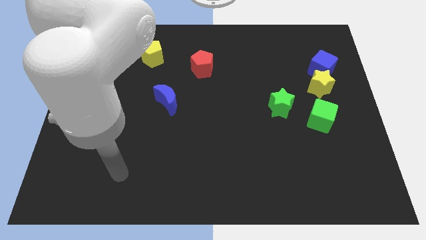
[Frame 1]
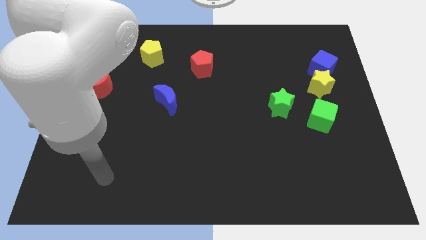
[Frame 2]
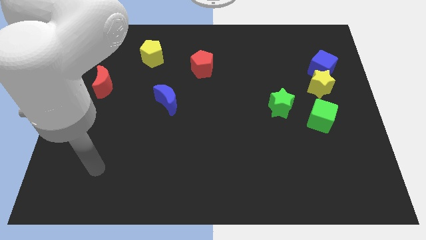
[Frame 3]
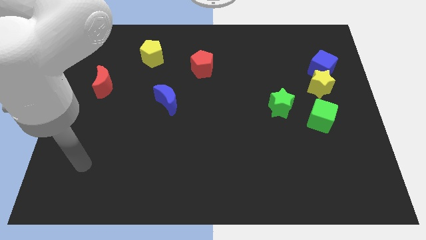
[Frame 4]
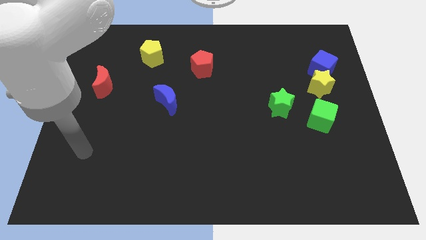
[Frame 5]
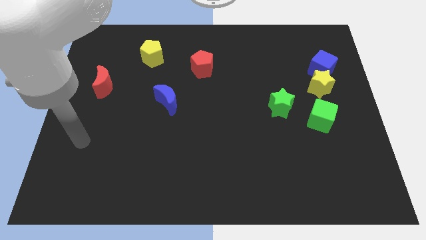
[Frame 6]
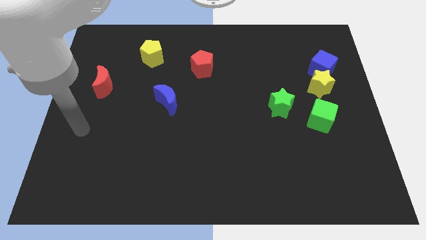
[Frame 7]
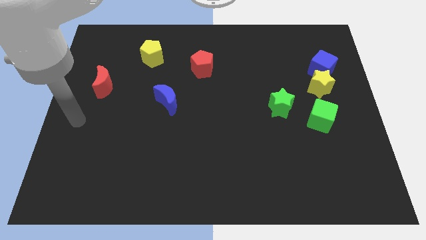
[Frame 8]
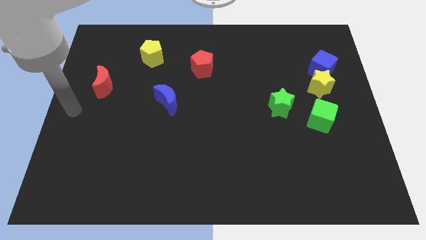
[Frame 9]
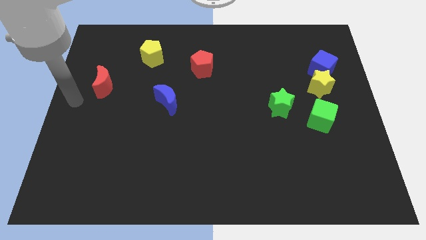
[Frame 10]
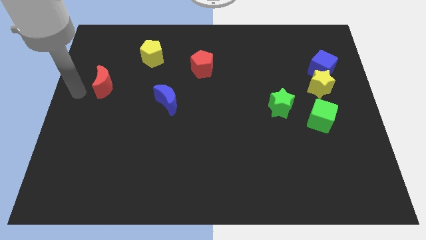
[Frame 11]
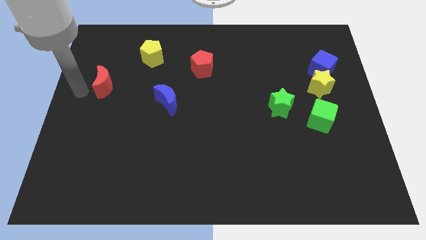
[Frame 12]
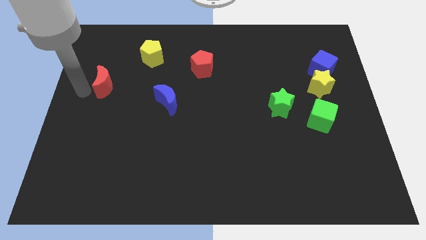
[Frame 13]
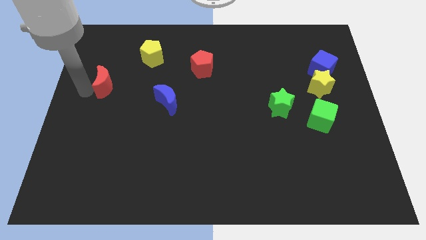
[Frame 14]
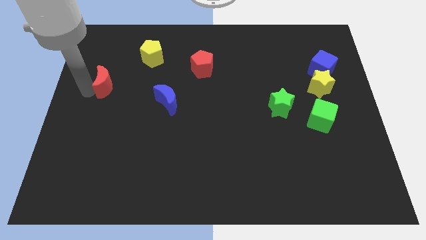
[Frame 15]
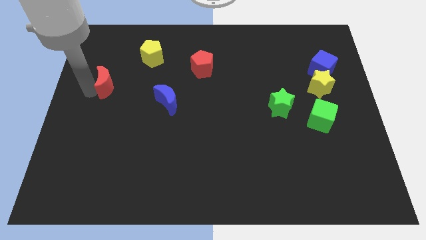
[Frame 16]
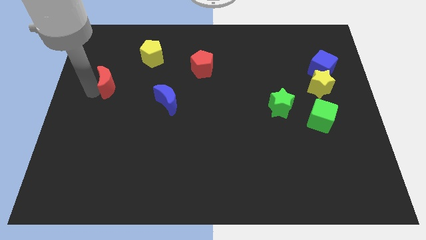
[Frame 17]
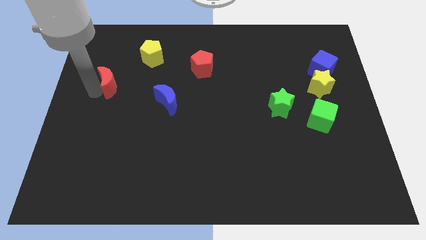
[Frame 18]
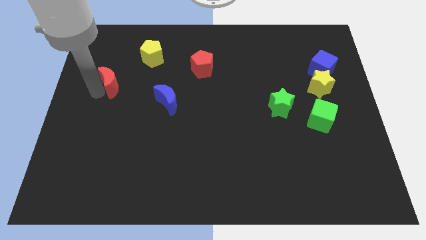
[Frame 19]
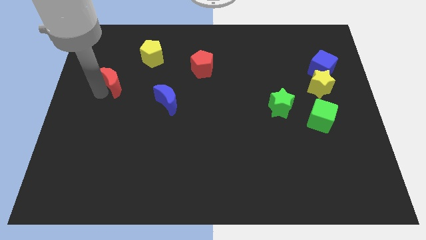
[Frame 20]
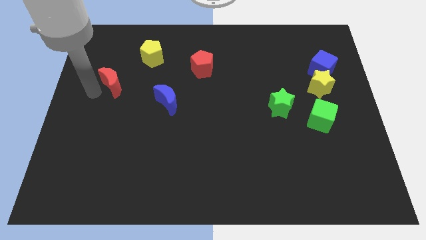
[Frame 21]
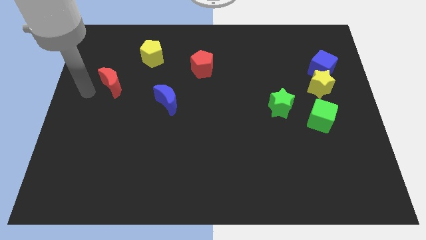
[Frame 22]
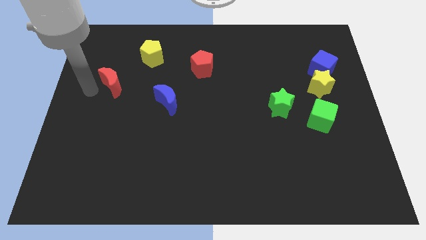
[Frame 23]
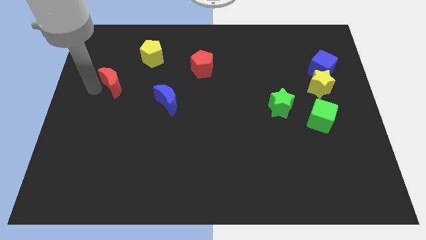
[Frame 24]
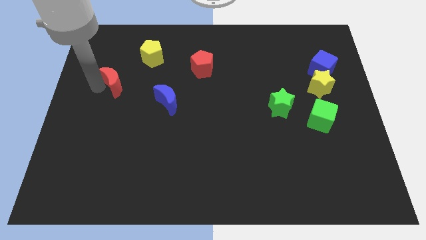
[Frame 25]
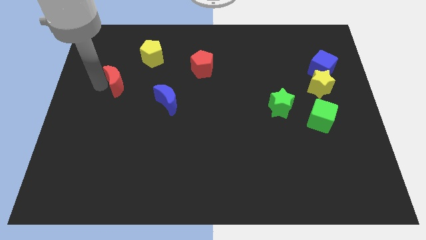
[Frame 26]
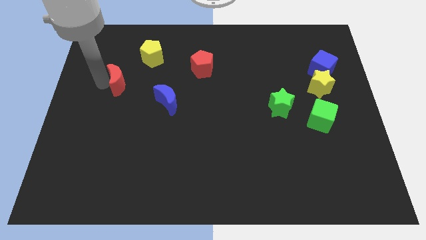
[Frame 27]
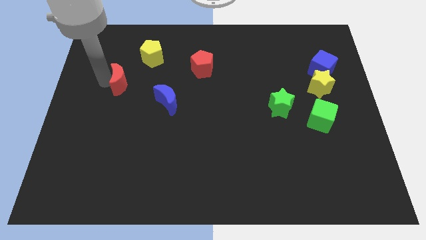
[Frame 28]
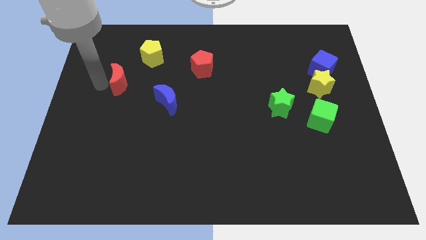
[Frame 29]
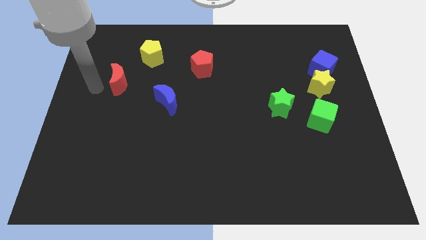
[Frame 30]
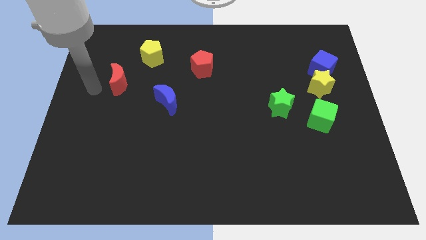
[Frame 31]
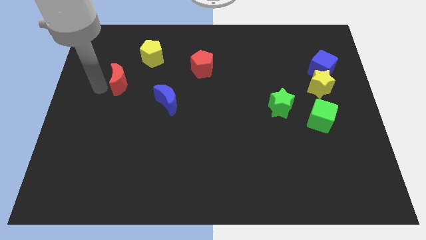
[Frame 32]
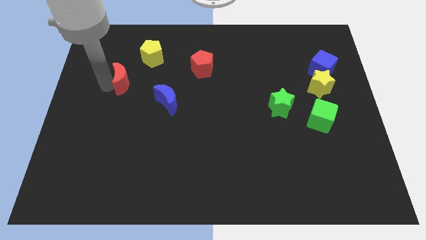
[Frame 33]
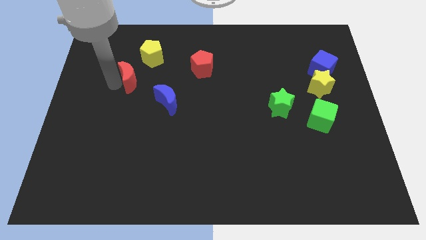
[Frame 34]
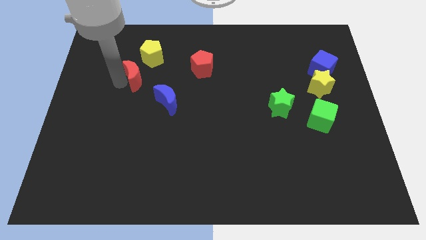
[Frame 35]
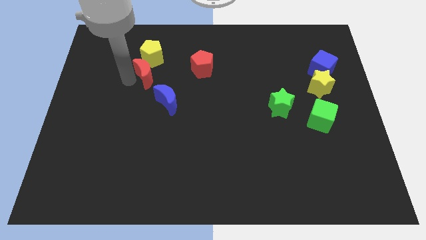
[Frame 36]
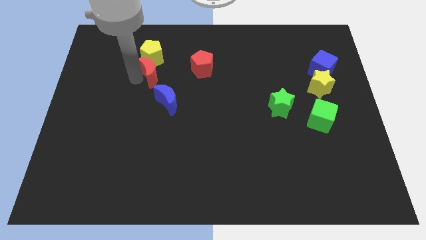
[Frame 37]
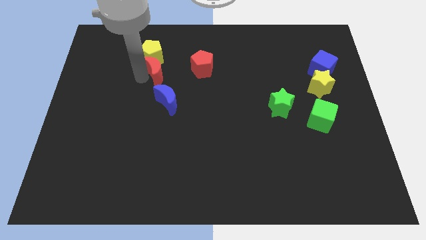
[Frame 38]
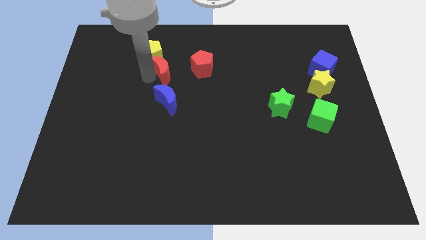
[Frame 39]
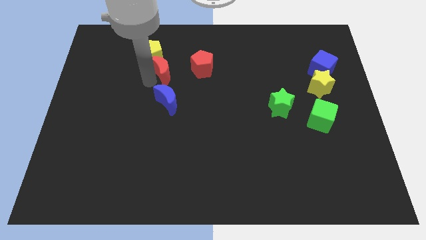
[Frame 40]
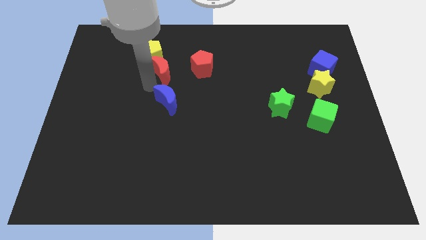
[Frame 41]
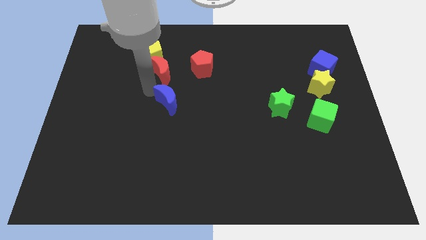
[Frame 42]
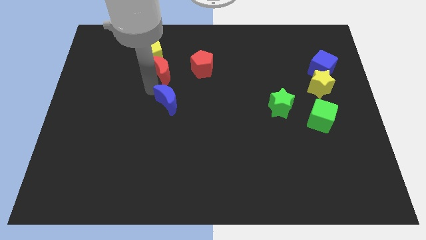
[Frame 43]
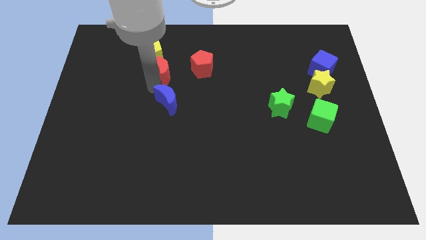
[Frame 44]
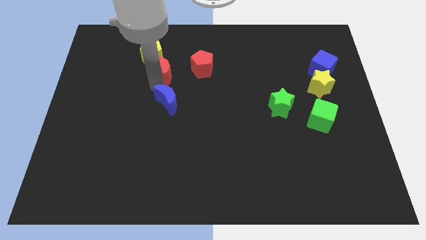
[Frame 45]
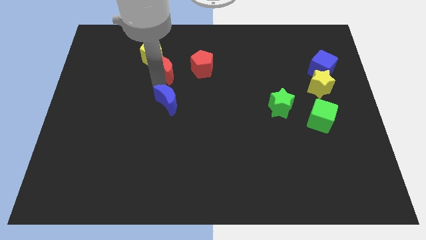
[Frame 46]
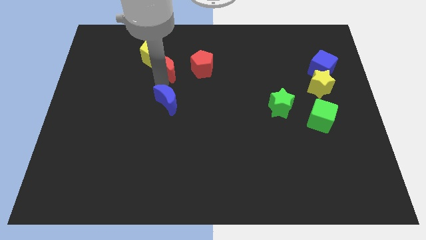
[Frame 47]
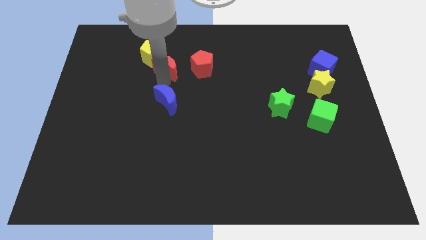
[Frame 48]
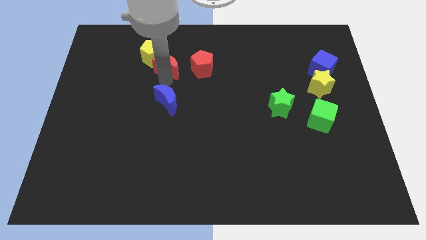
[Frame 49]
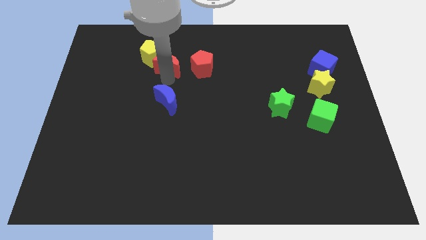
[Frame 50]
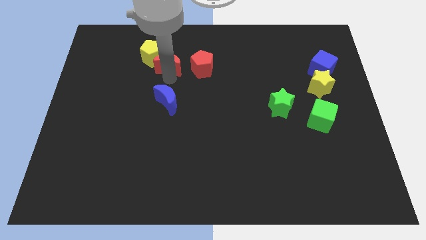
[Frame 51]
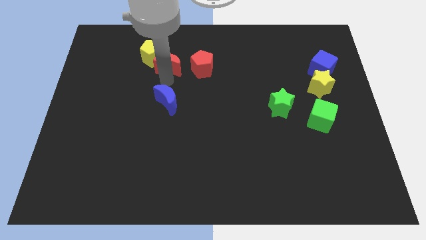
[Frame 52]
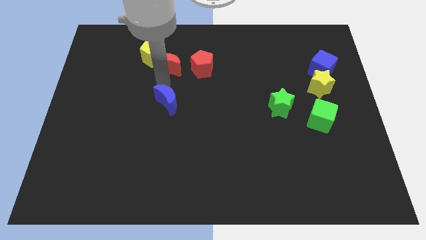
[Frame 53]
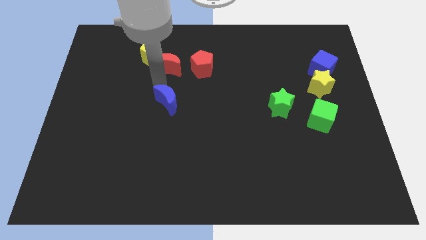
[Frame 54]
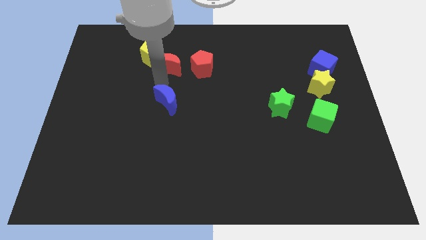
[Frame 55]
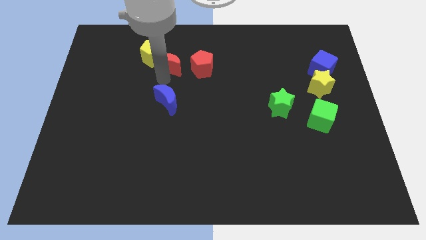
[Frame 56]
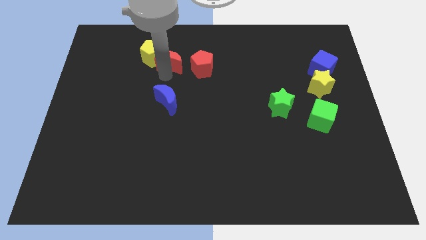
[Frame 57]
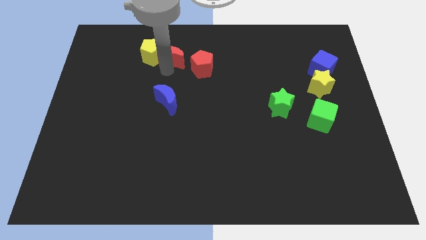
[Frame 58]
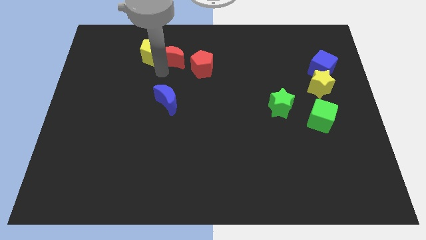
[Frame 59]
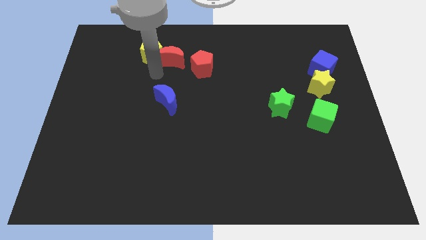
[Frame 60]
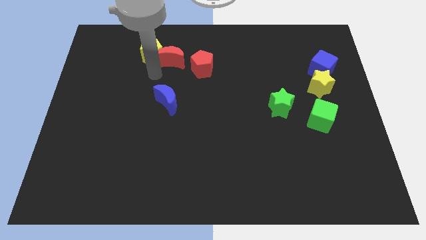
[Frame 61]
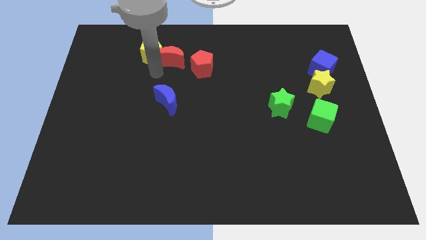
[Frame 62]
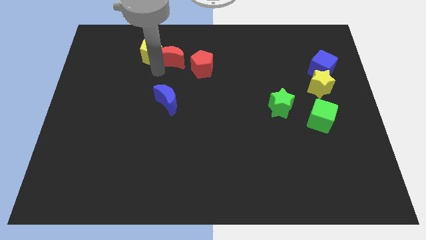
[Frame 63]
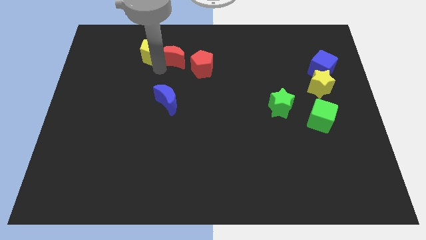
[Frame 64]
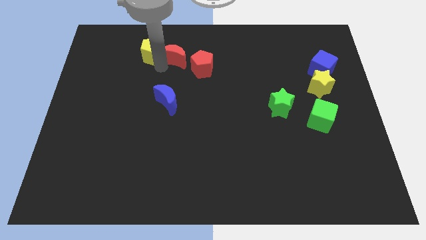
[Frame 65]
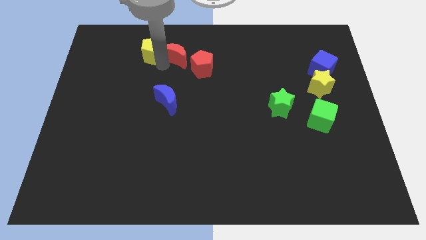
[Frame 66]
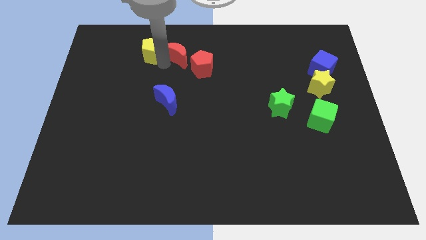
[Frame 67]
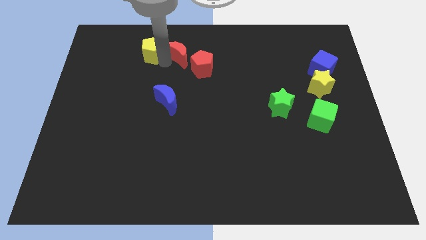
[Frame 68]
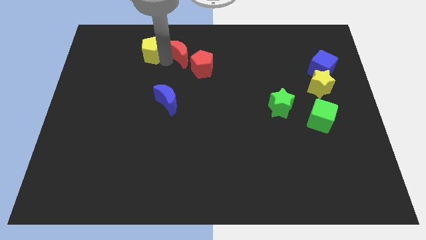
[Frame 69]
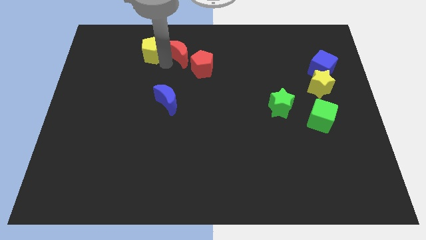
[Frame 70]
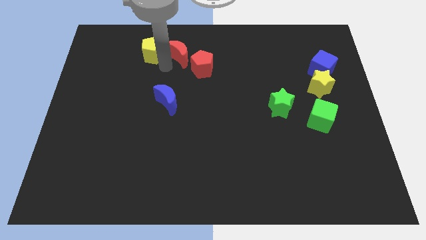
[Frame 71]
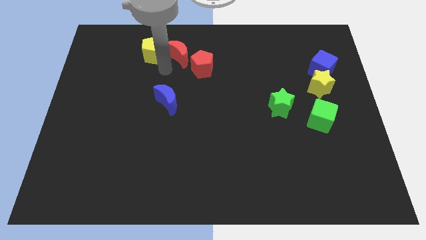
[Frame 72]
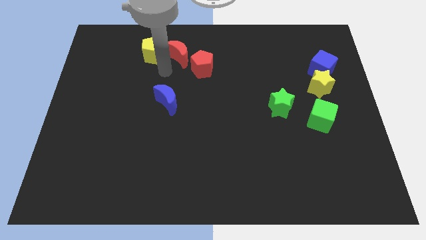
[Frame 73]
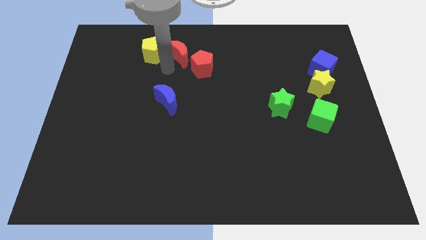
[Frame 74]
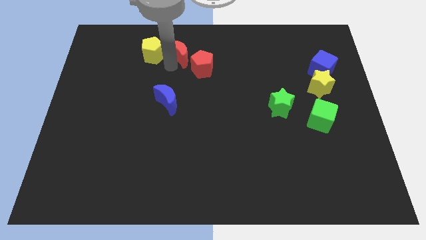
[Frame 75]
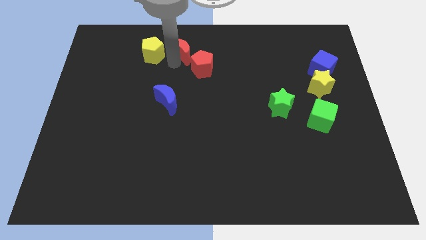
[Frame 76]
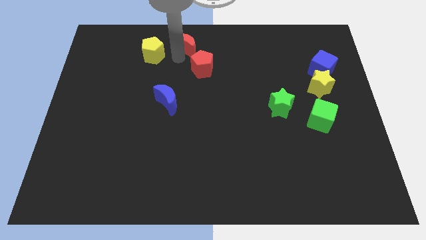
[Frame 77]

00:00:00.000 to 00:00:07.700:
slide the red moon to the top side
